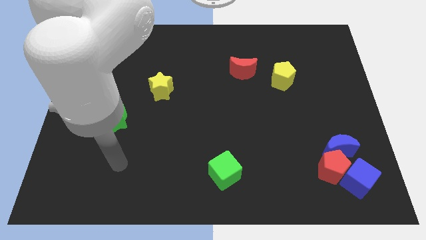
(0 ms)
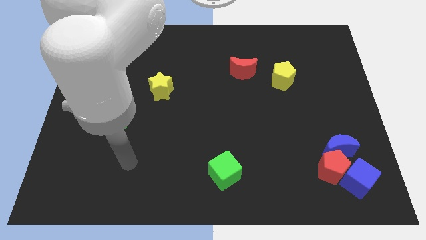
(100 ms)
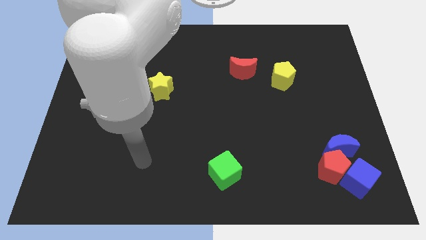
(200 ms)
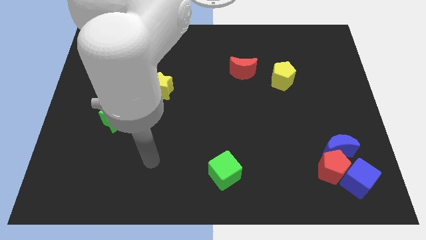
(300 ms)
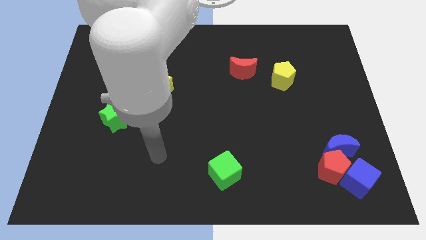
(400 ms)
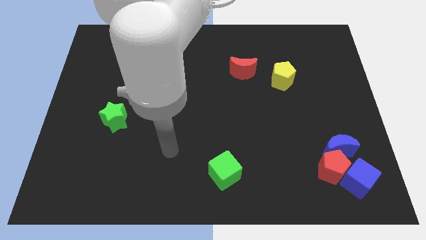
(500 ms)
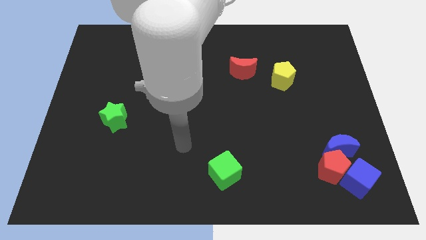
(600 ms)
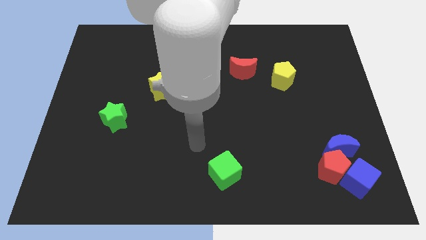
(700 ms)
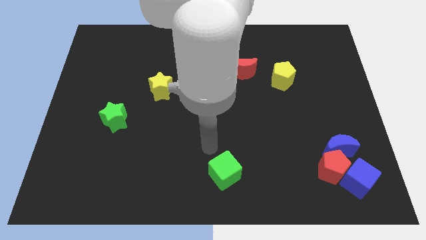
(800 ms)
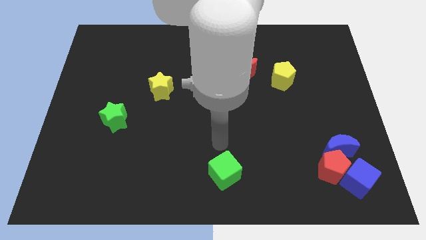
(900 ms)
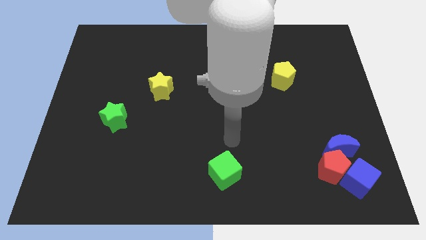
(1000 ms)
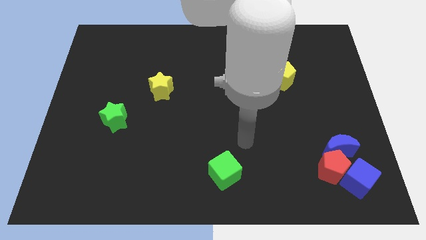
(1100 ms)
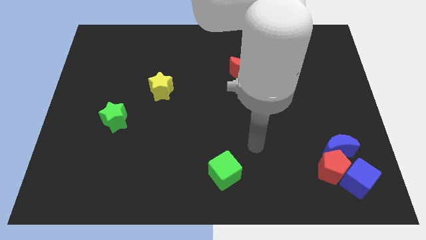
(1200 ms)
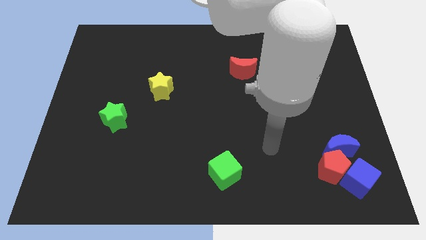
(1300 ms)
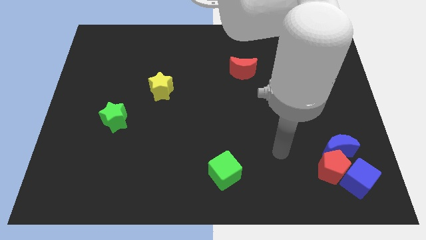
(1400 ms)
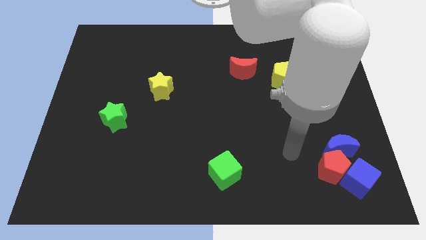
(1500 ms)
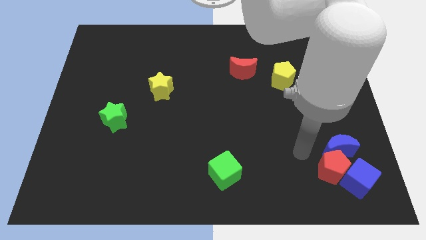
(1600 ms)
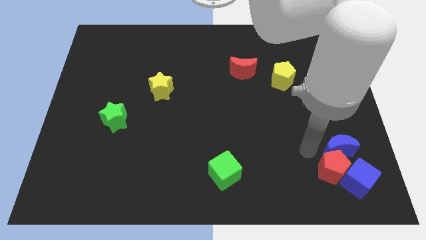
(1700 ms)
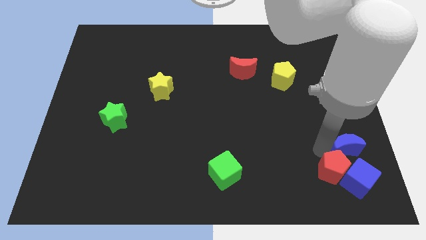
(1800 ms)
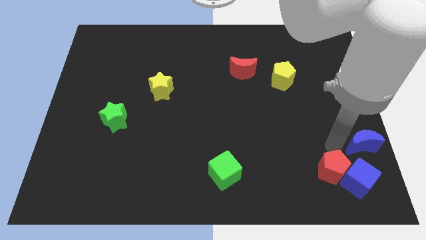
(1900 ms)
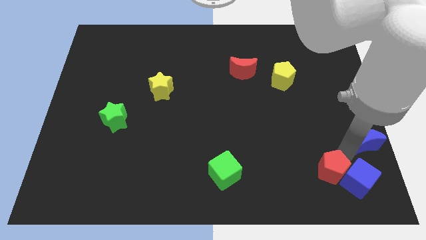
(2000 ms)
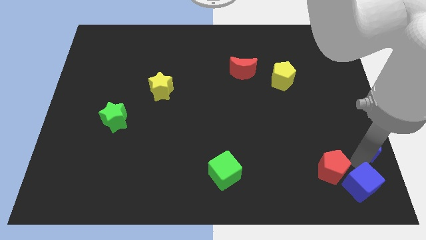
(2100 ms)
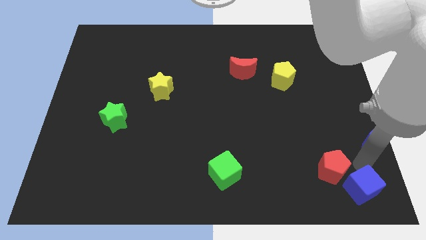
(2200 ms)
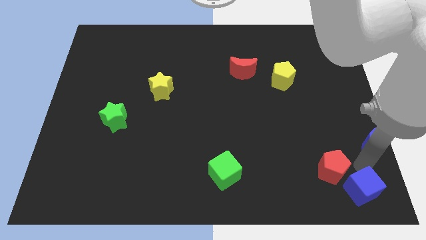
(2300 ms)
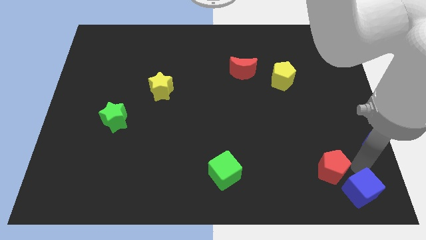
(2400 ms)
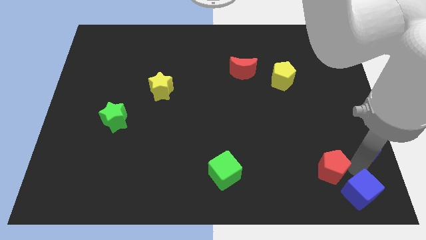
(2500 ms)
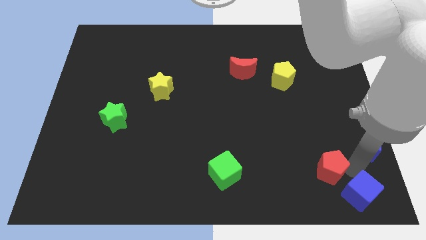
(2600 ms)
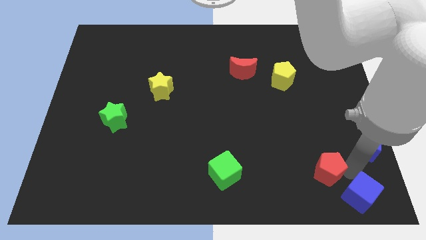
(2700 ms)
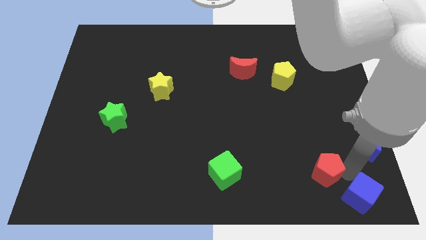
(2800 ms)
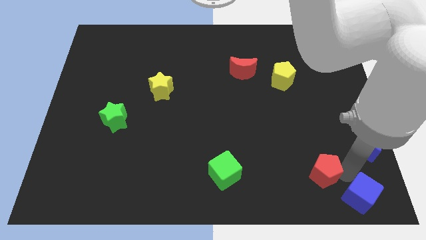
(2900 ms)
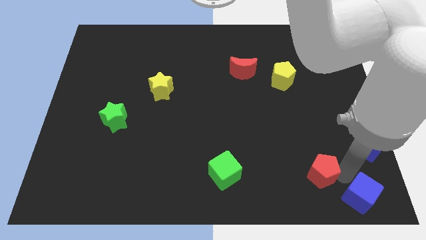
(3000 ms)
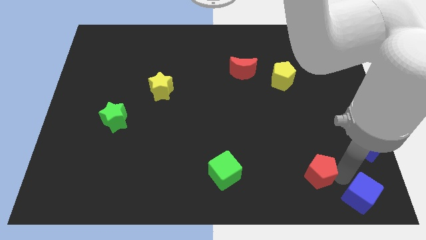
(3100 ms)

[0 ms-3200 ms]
move the red pentagon away from the blue cube and blue moon

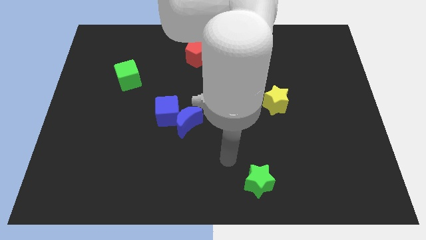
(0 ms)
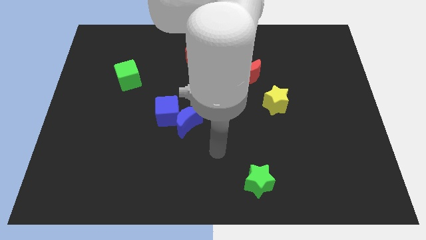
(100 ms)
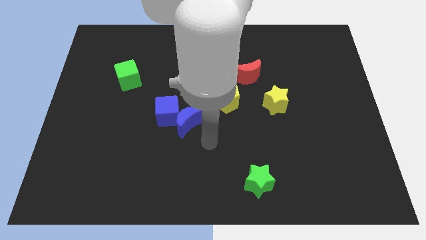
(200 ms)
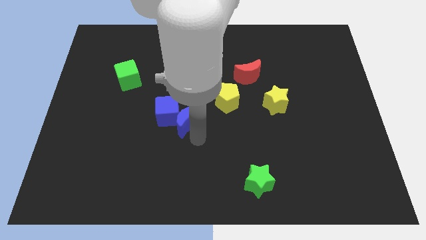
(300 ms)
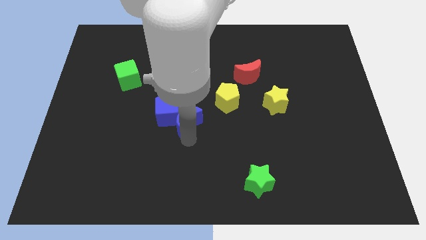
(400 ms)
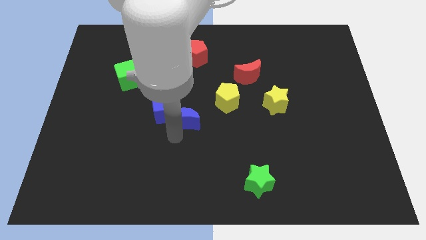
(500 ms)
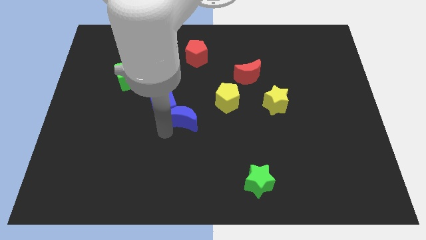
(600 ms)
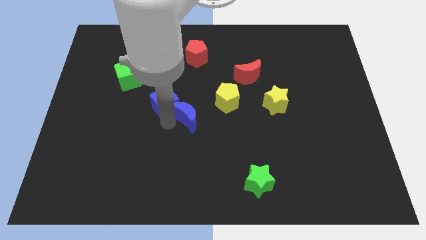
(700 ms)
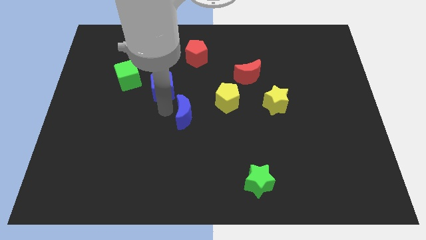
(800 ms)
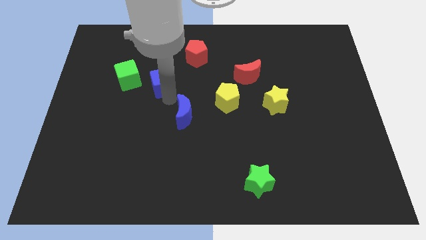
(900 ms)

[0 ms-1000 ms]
separate the blue moon from the blue cube

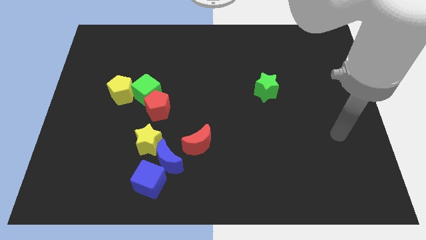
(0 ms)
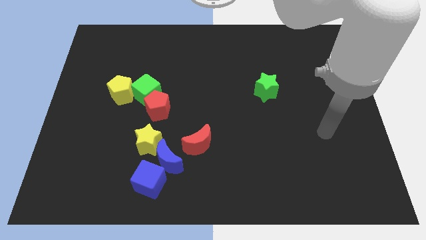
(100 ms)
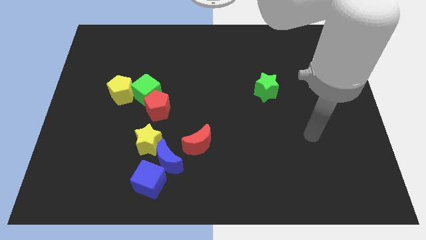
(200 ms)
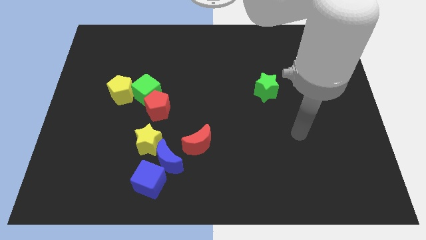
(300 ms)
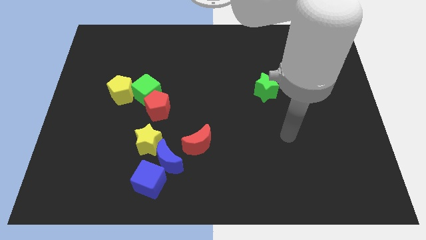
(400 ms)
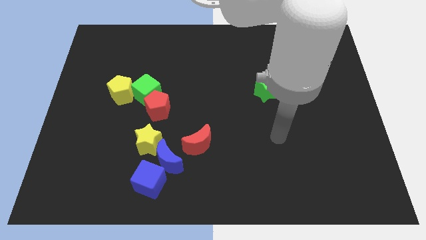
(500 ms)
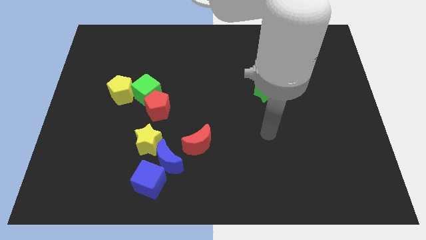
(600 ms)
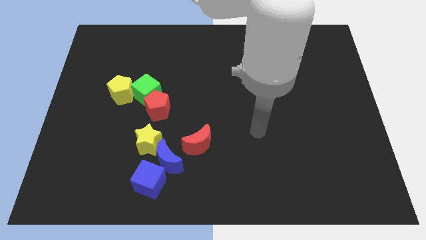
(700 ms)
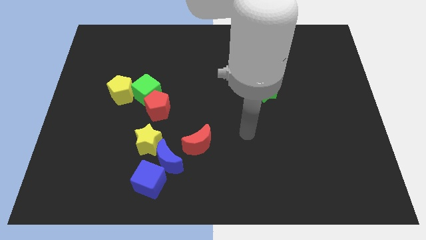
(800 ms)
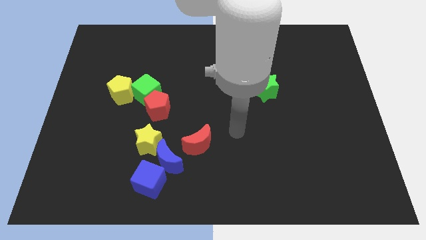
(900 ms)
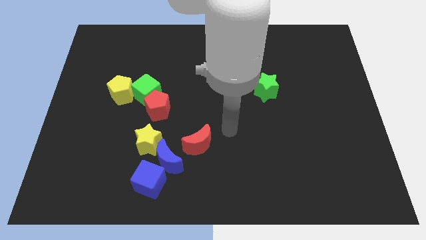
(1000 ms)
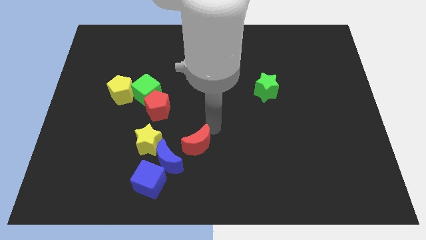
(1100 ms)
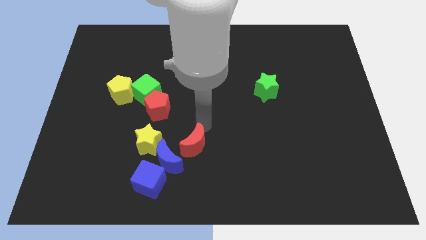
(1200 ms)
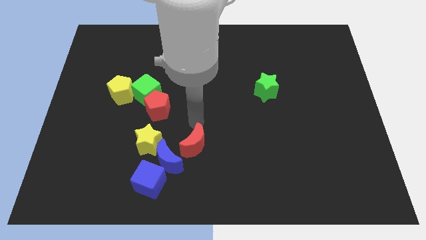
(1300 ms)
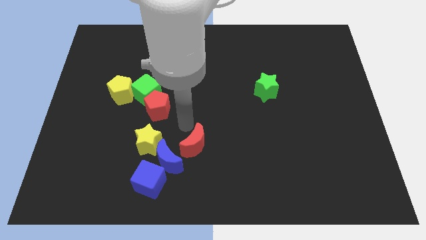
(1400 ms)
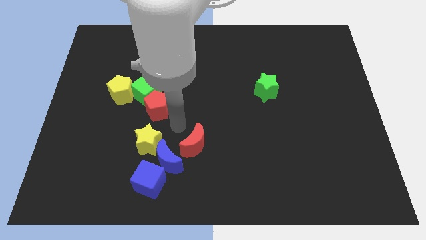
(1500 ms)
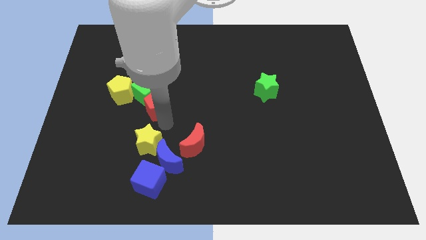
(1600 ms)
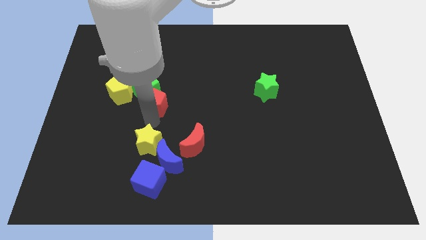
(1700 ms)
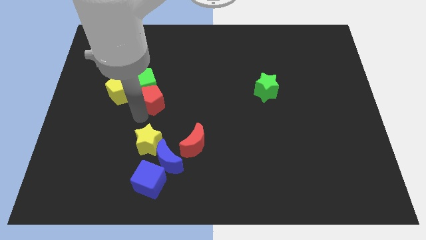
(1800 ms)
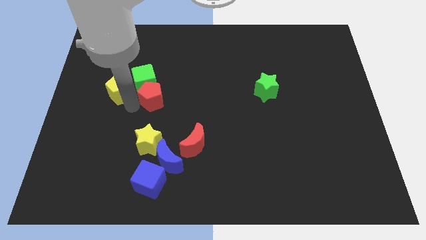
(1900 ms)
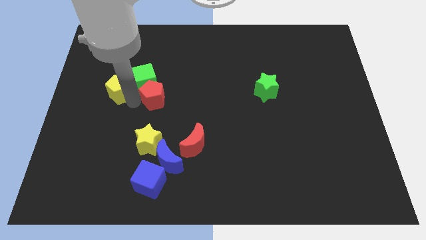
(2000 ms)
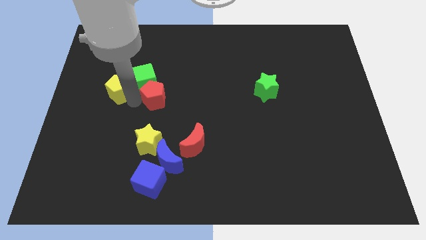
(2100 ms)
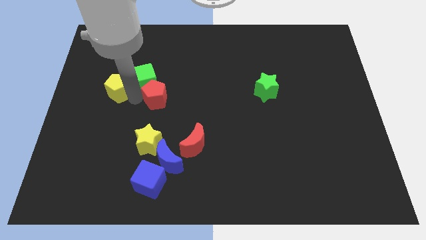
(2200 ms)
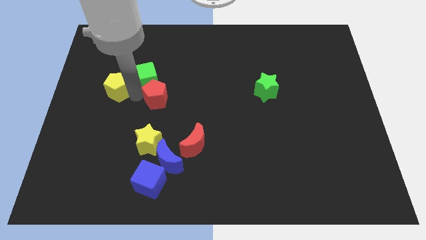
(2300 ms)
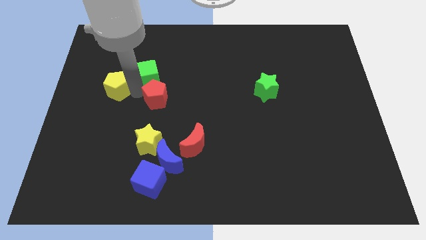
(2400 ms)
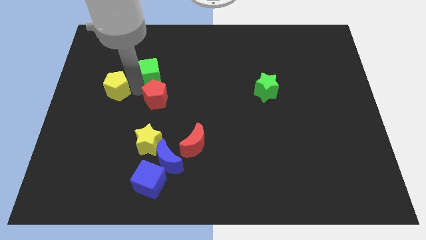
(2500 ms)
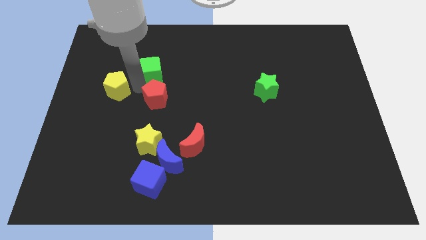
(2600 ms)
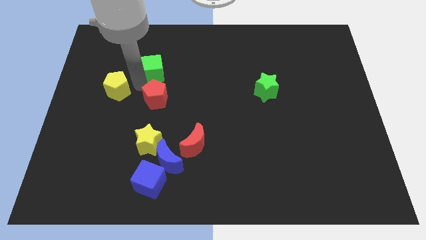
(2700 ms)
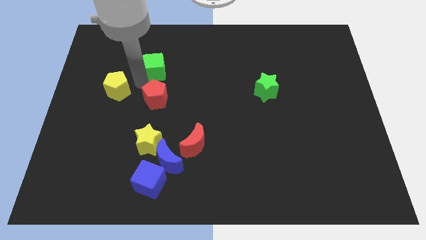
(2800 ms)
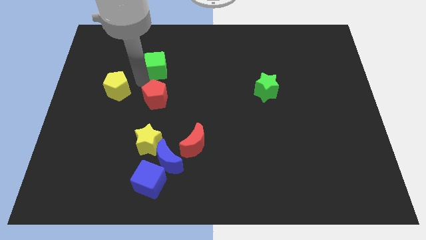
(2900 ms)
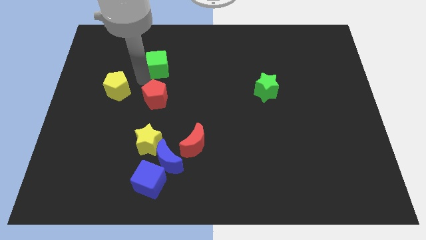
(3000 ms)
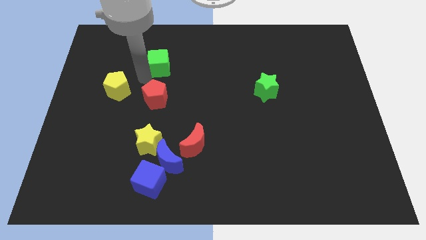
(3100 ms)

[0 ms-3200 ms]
pull the green cube apart from the red pentagon and yellow pentagon

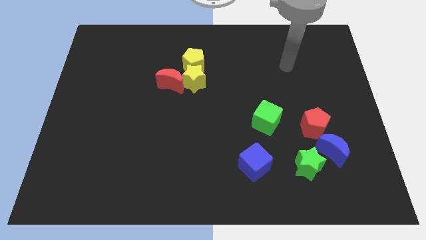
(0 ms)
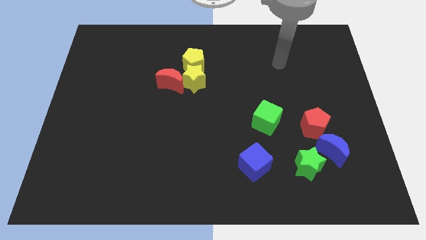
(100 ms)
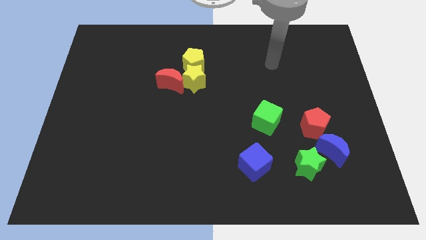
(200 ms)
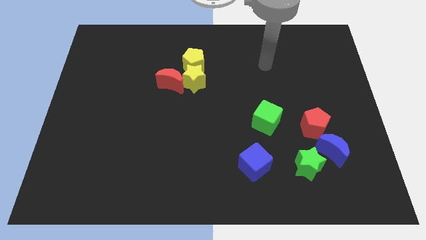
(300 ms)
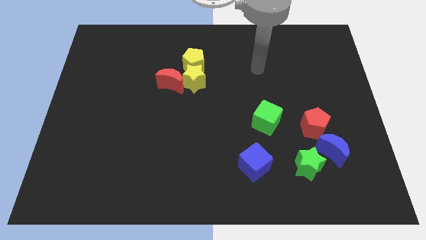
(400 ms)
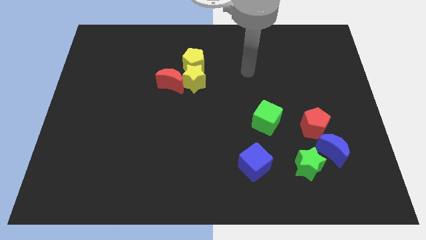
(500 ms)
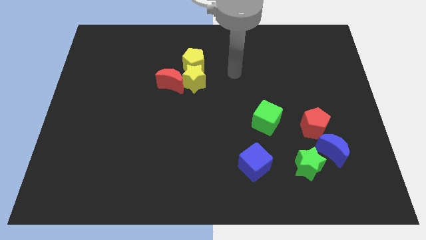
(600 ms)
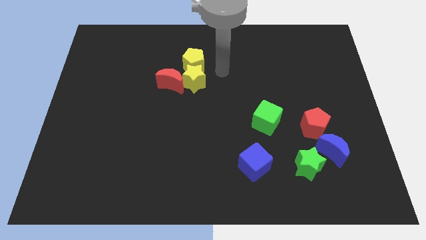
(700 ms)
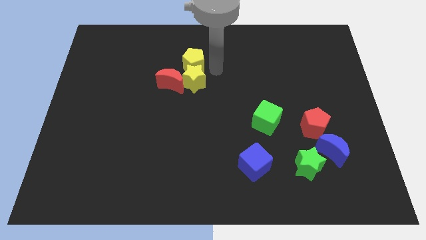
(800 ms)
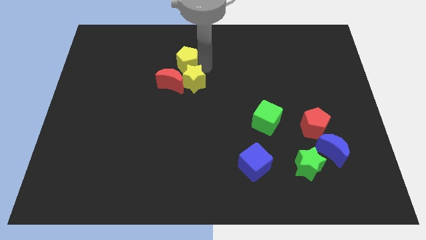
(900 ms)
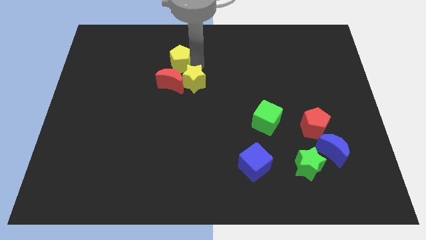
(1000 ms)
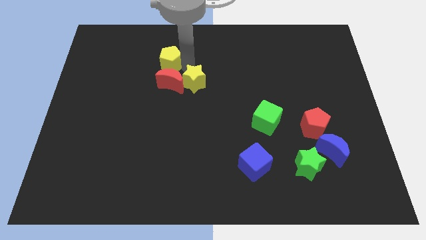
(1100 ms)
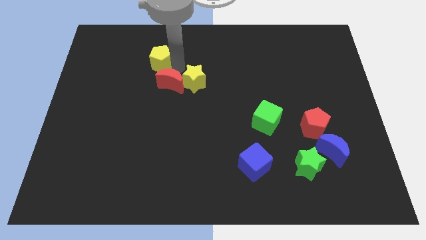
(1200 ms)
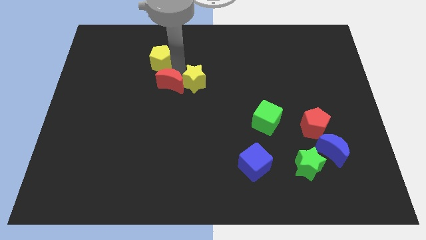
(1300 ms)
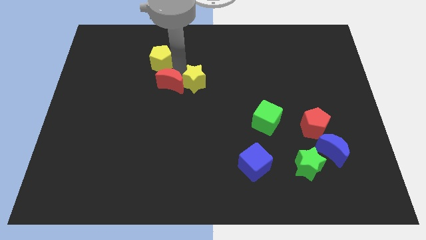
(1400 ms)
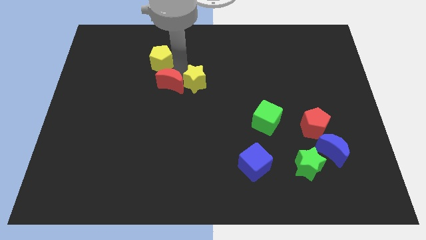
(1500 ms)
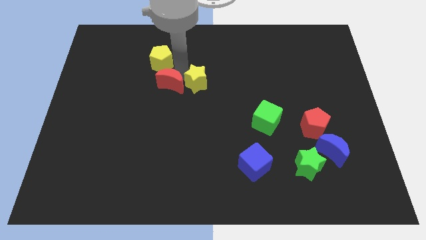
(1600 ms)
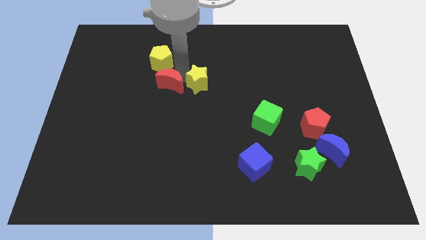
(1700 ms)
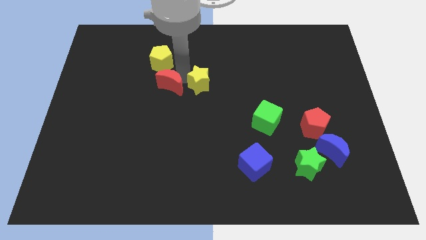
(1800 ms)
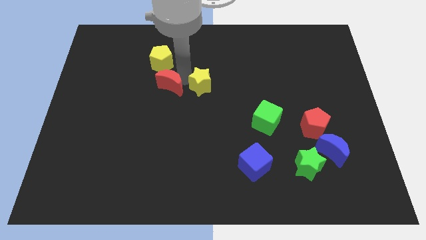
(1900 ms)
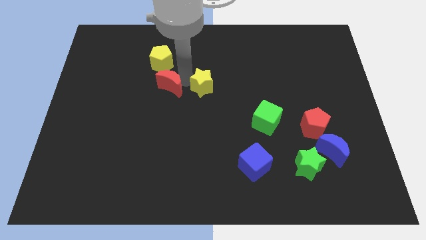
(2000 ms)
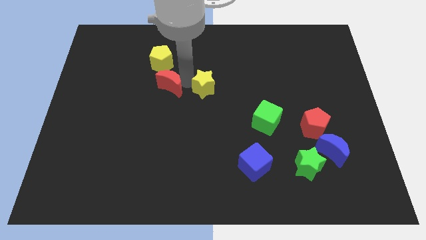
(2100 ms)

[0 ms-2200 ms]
separate the yellow star from the red moon and yellow pentagon
